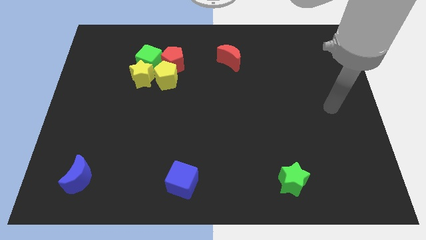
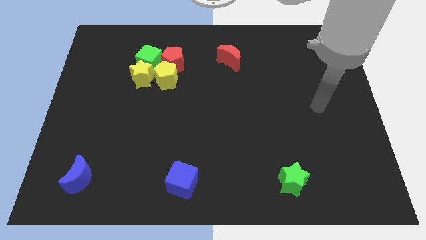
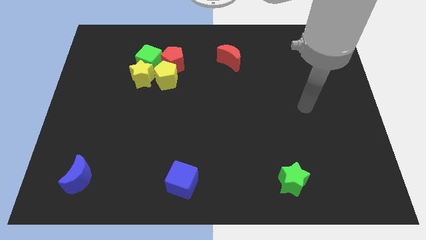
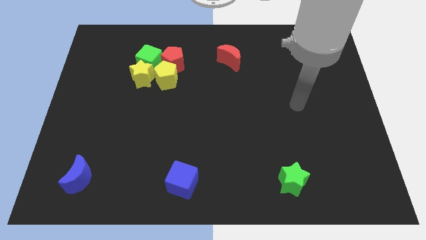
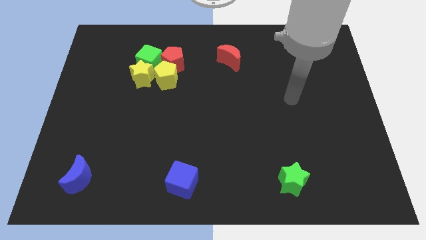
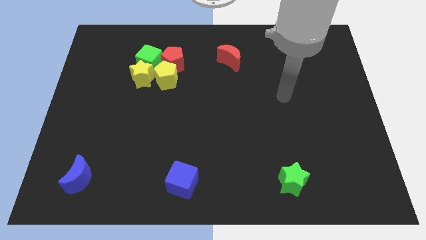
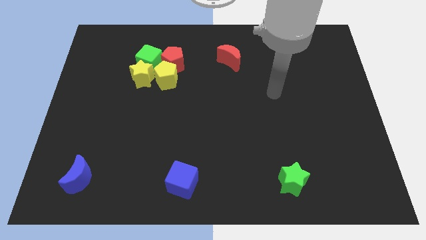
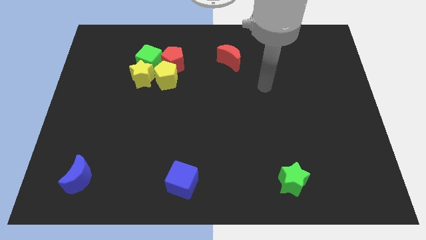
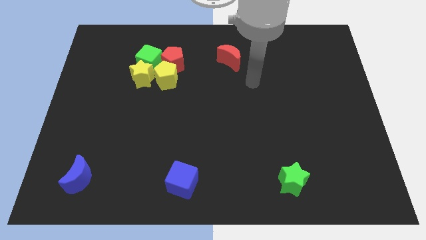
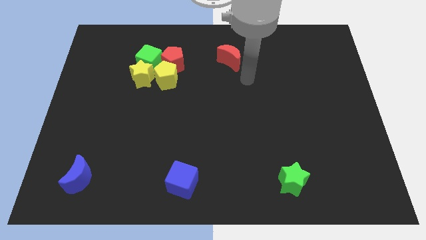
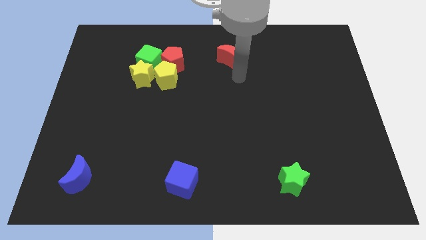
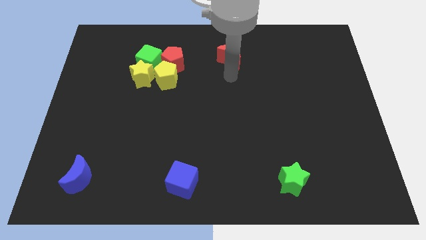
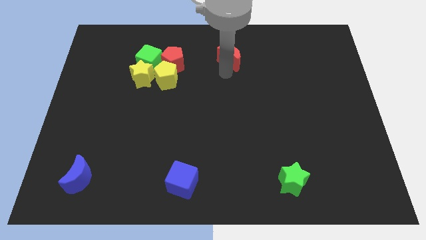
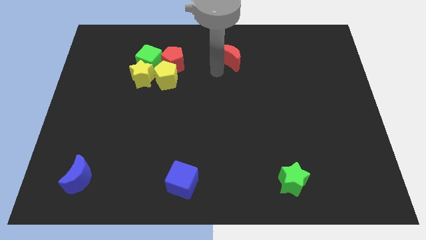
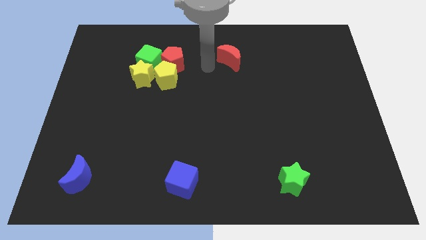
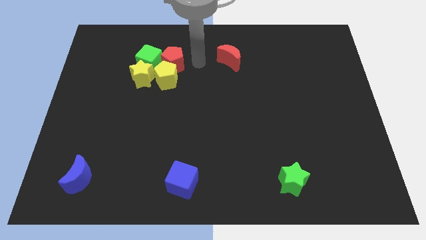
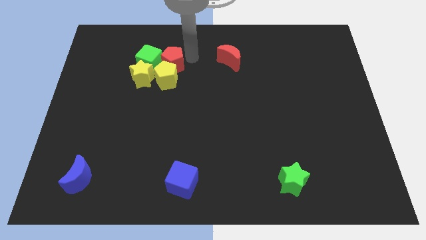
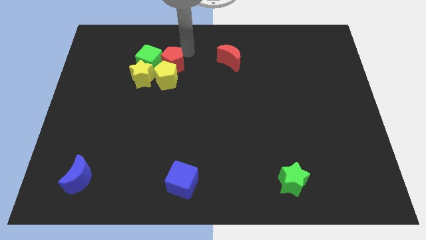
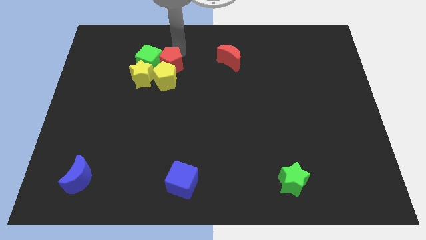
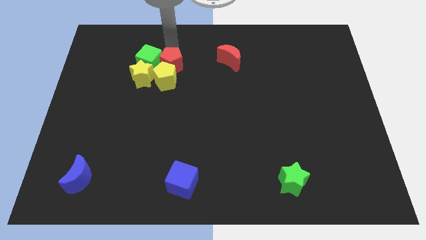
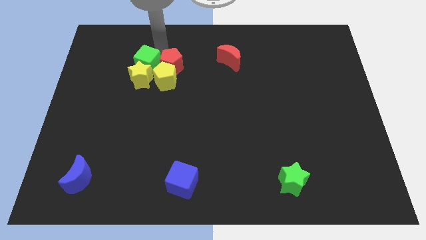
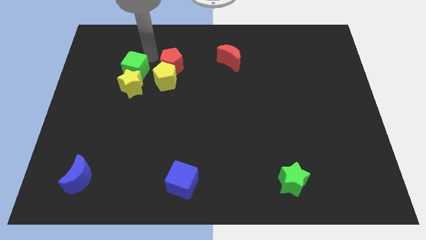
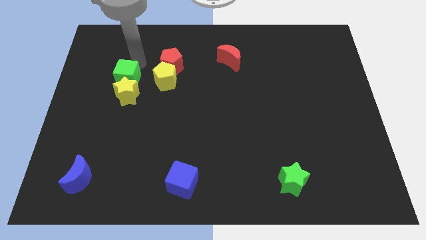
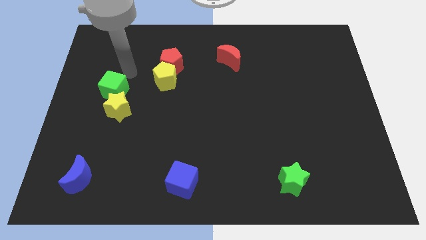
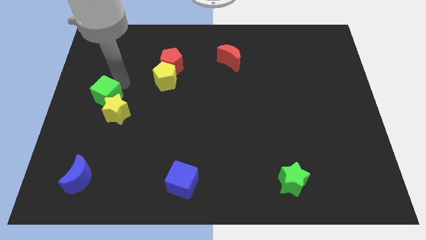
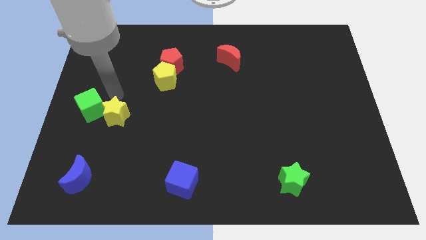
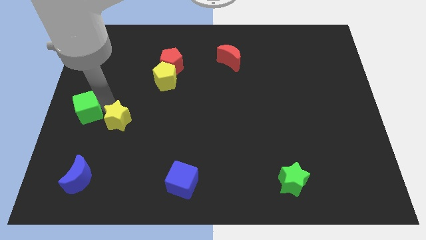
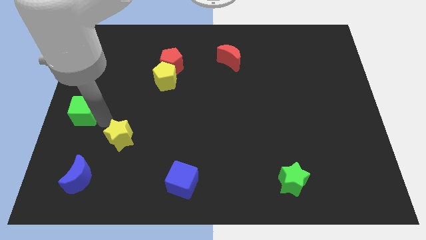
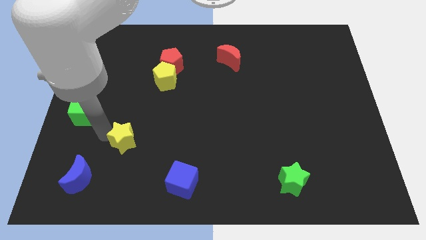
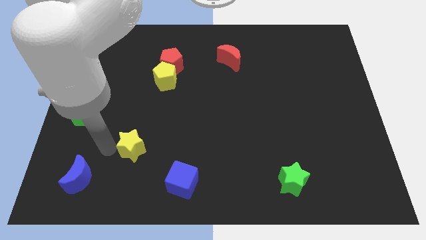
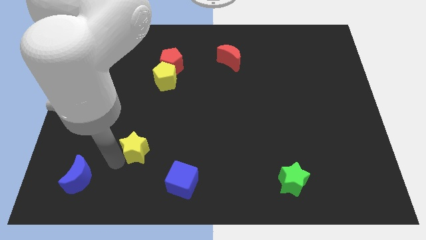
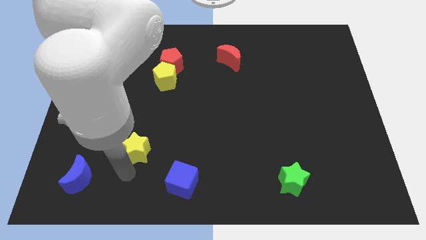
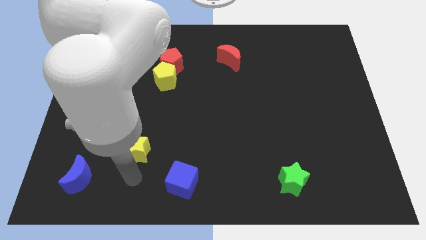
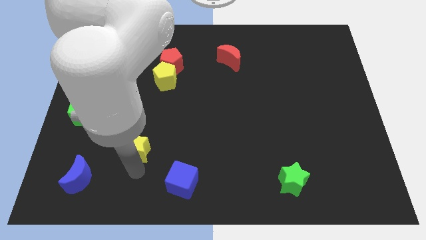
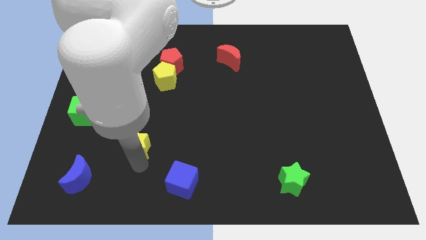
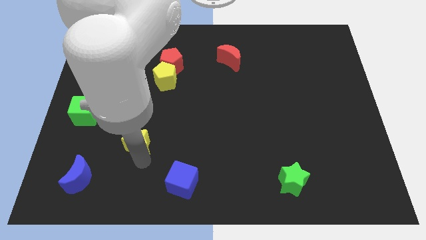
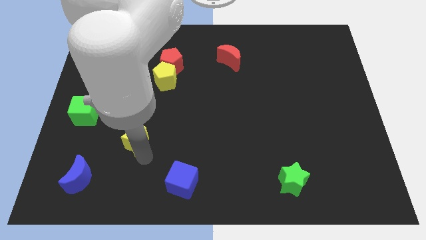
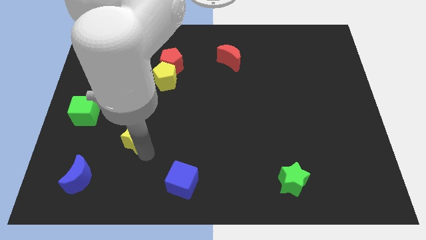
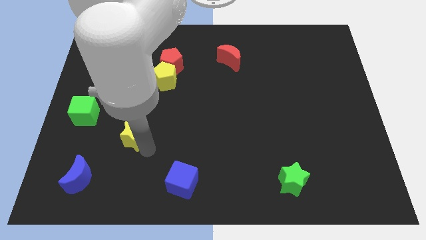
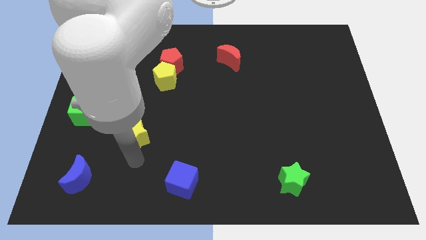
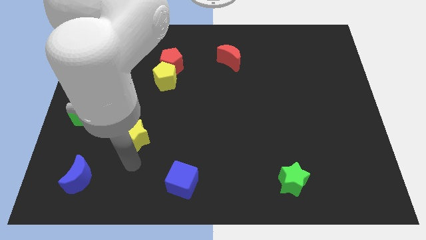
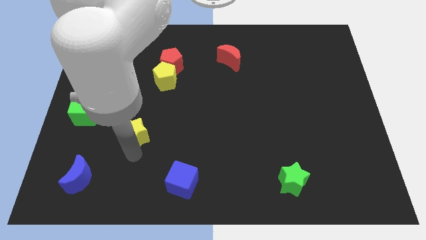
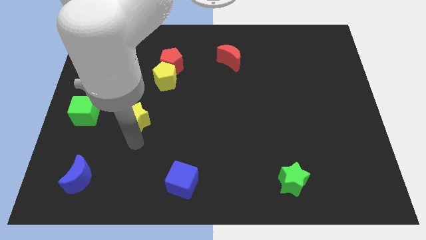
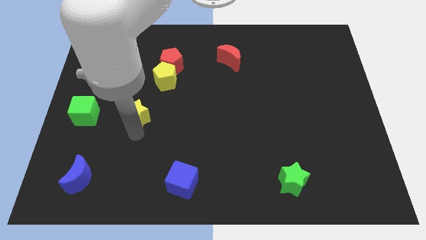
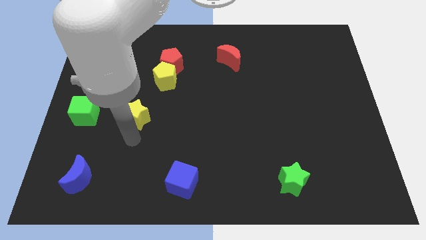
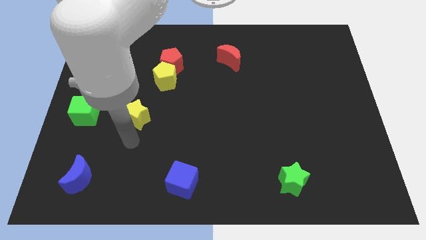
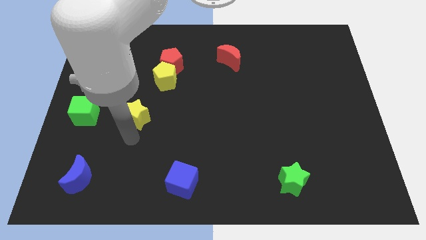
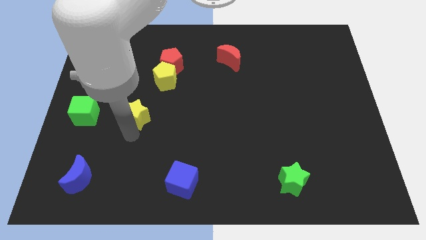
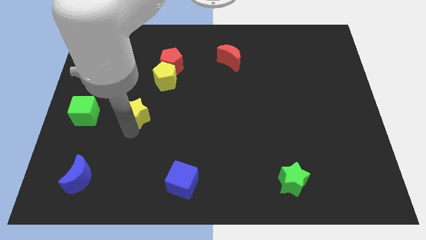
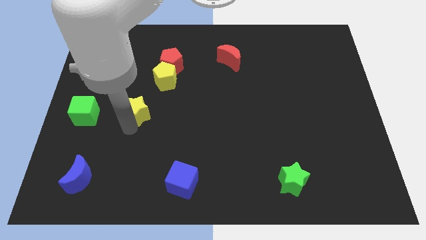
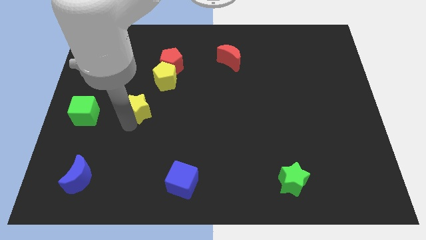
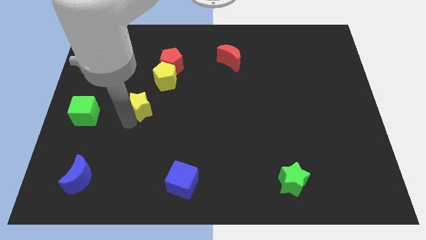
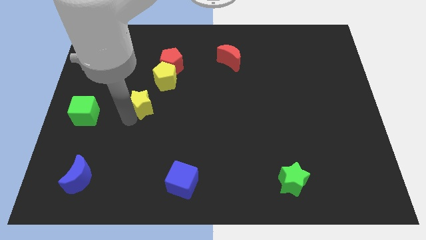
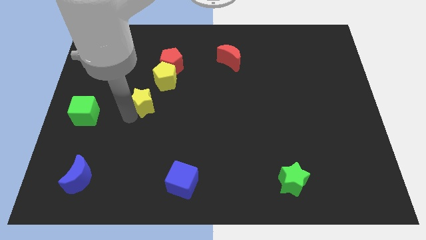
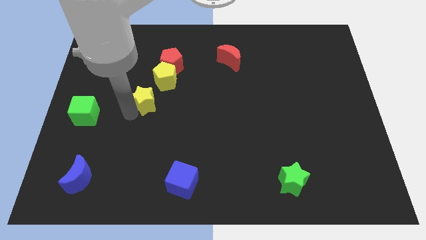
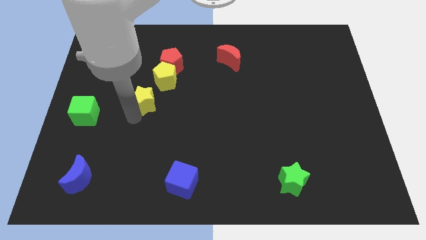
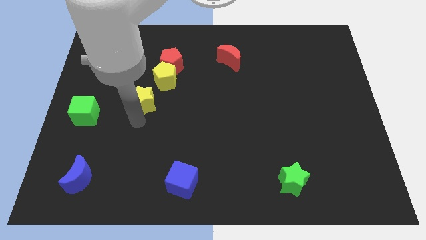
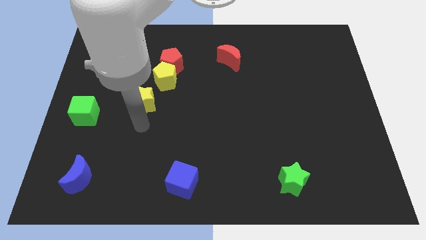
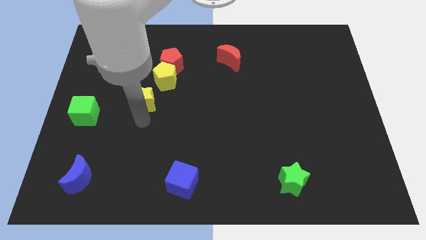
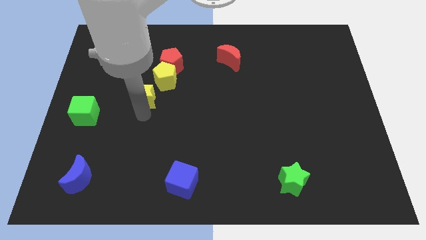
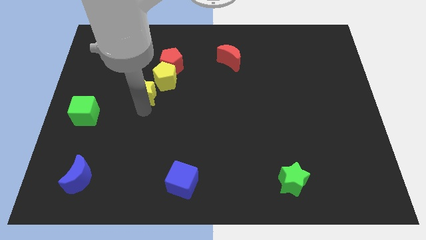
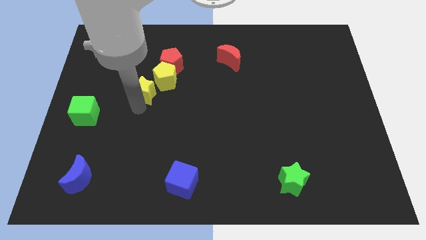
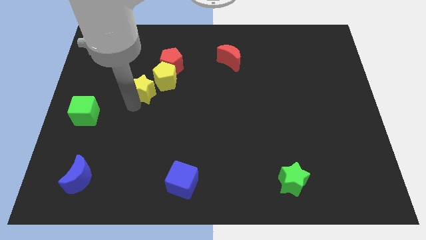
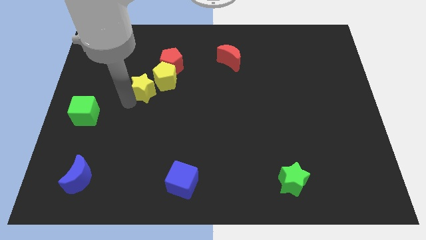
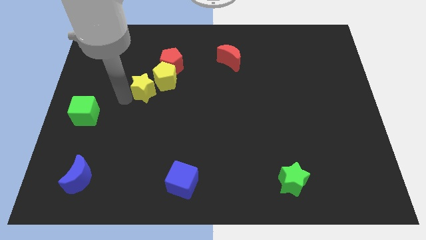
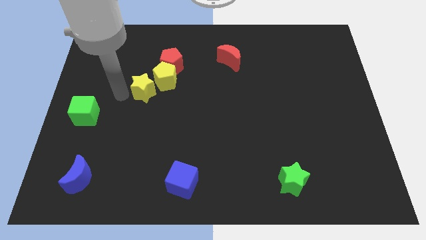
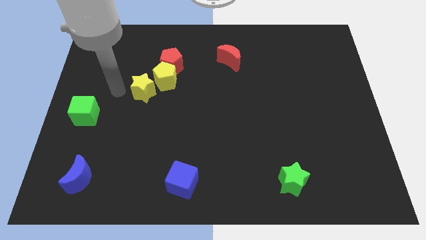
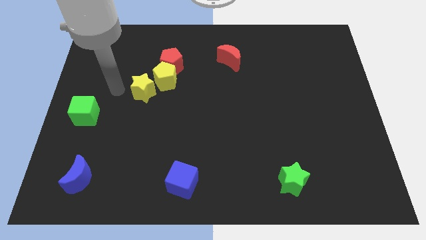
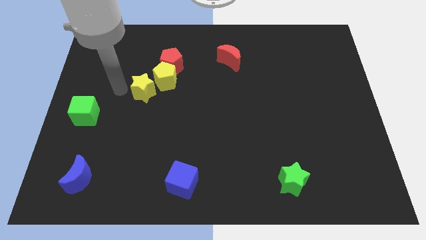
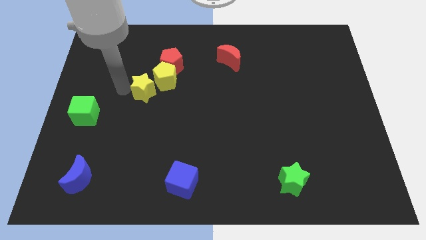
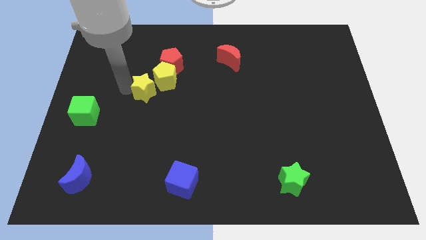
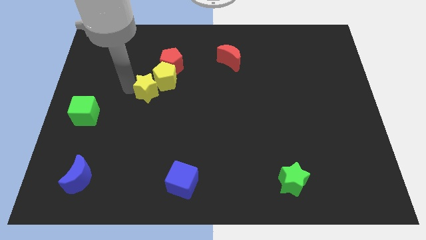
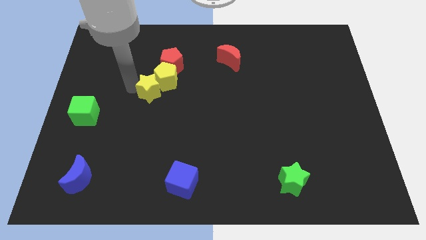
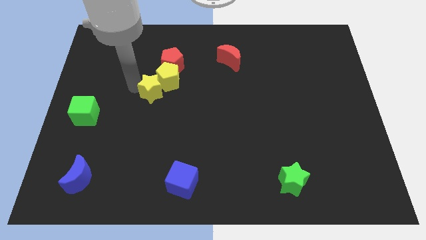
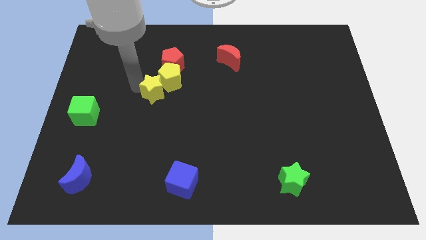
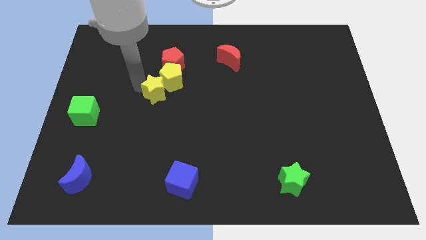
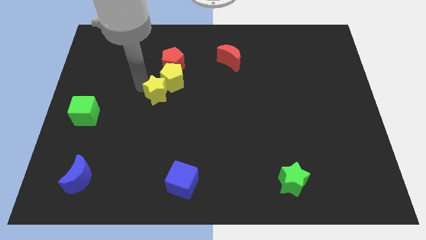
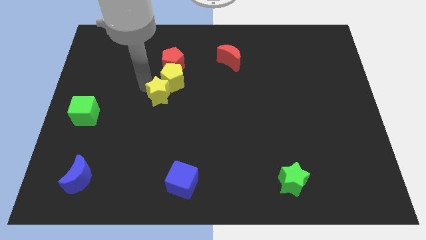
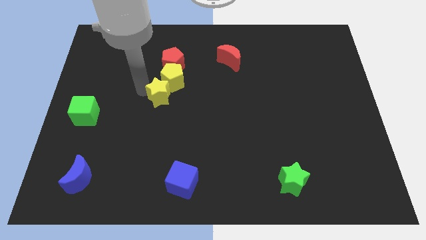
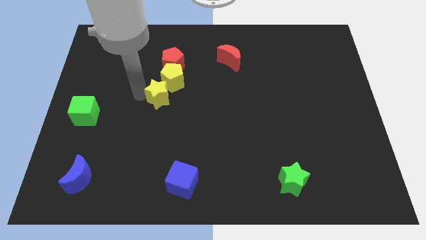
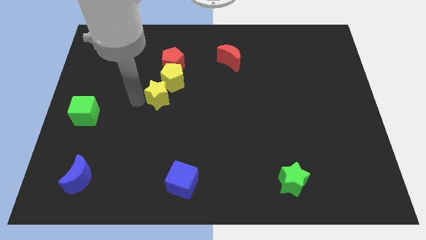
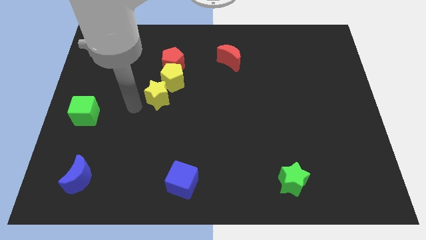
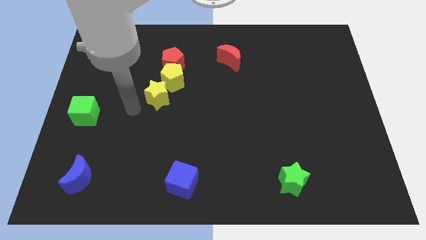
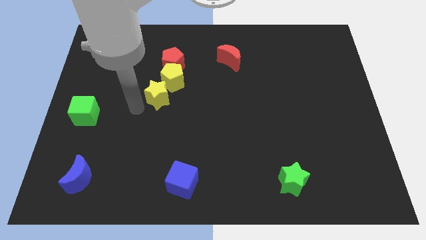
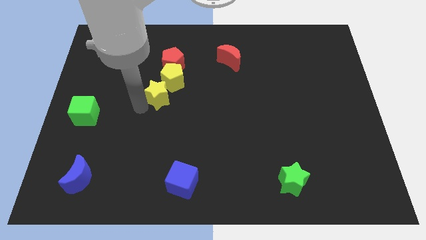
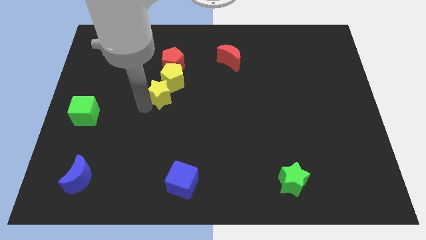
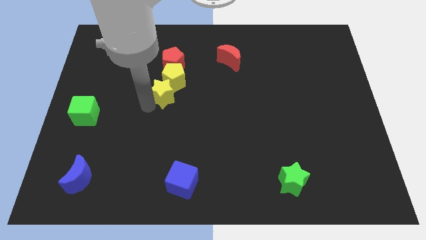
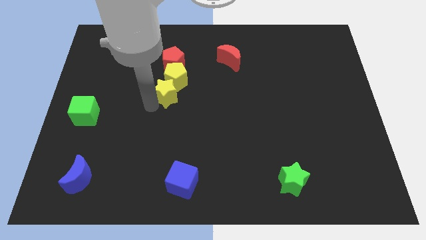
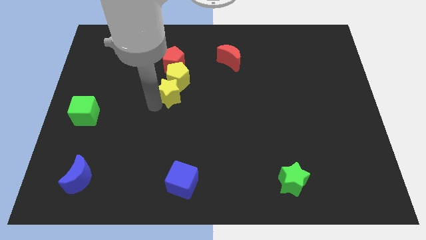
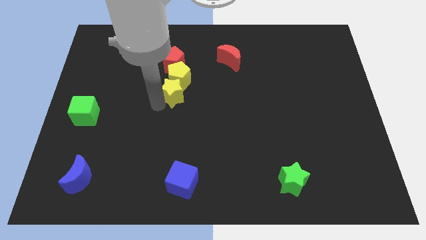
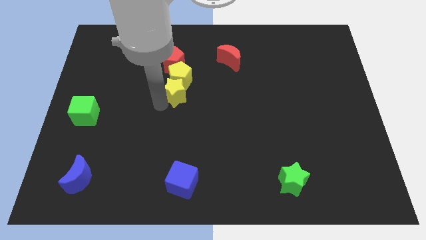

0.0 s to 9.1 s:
slightly move the yellow star to the right
